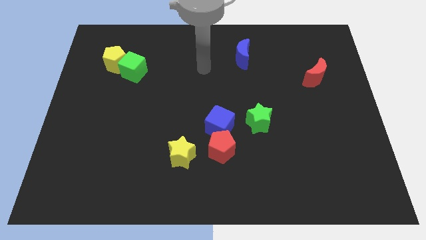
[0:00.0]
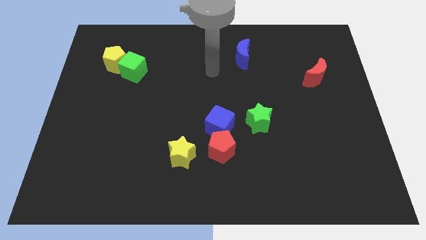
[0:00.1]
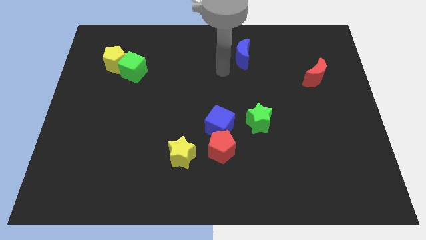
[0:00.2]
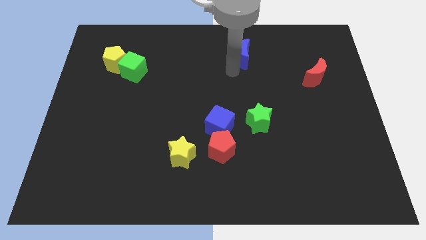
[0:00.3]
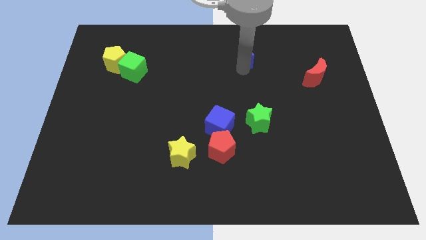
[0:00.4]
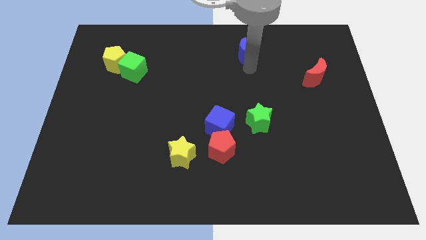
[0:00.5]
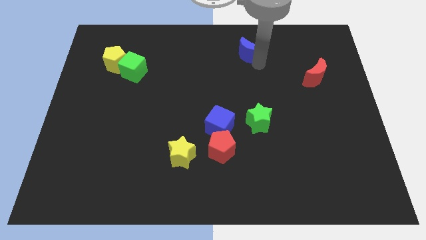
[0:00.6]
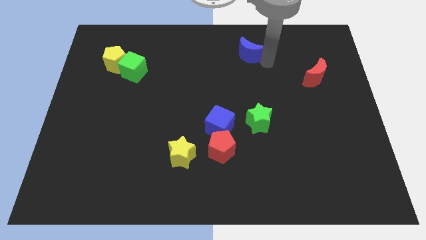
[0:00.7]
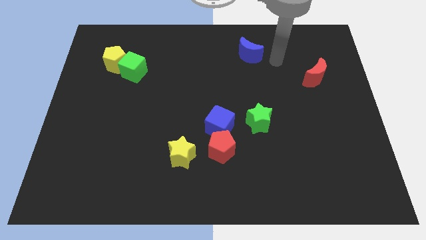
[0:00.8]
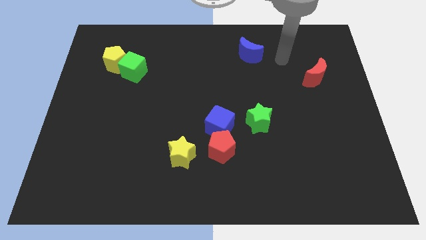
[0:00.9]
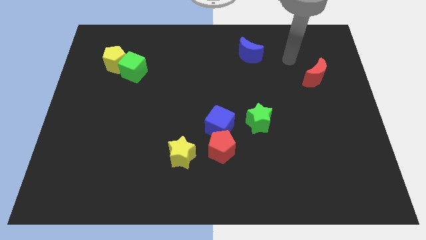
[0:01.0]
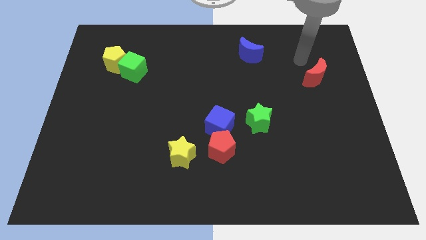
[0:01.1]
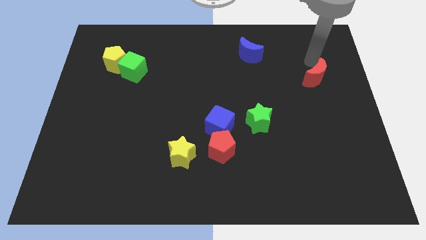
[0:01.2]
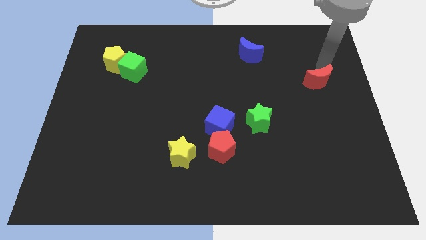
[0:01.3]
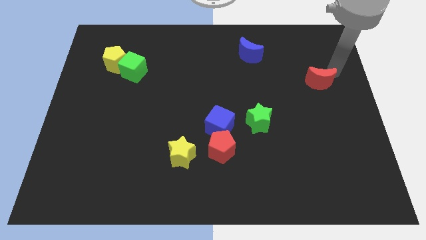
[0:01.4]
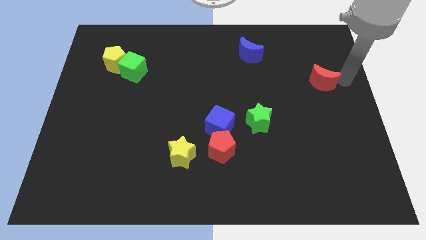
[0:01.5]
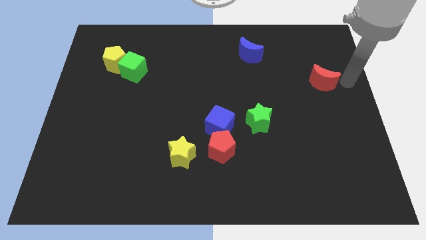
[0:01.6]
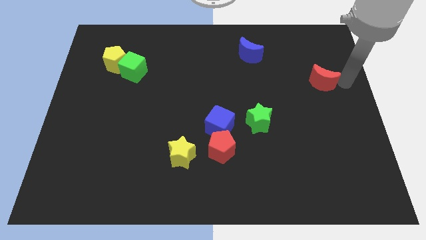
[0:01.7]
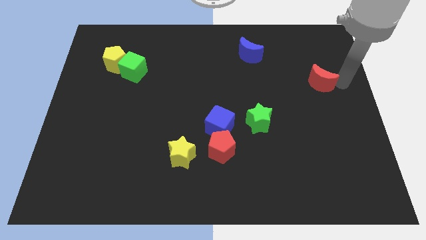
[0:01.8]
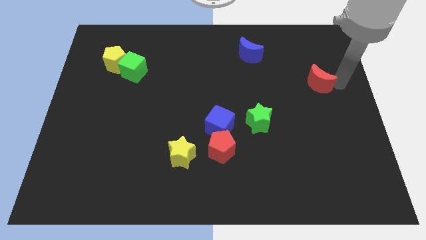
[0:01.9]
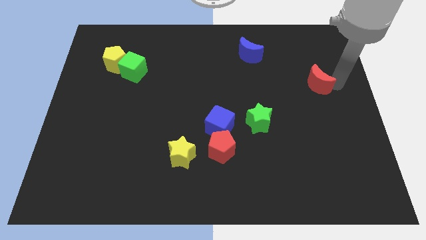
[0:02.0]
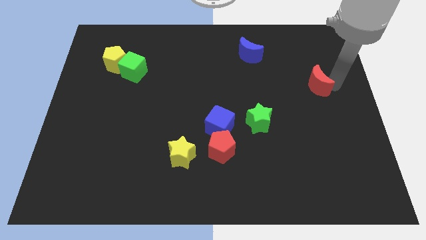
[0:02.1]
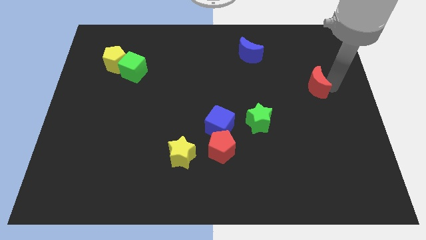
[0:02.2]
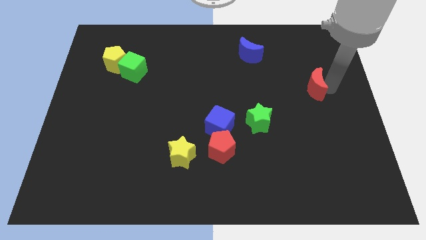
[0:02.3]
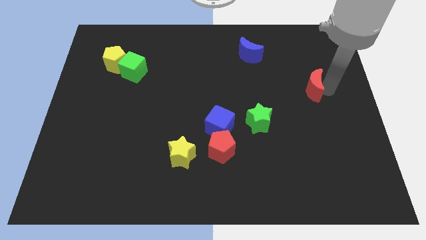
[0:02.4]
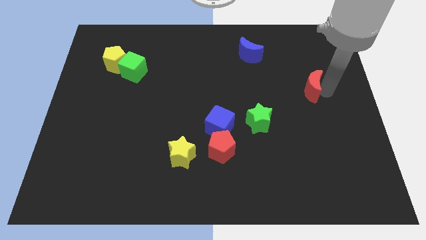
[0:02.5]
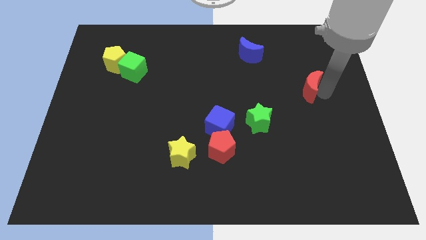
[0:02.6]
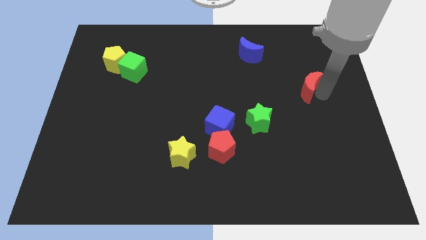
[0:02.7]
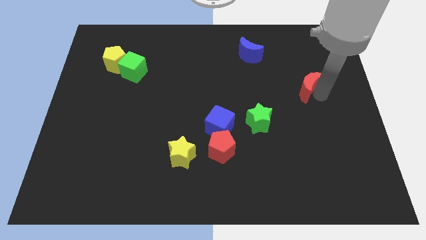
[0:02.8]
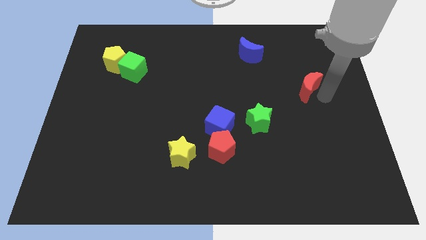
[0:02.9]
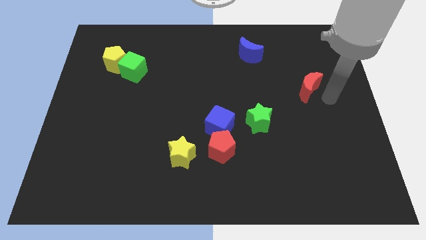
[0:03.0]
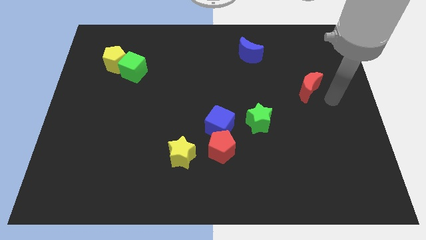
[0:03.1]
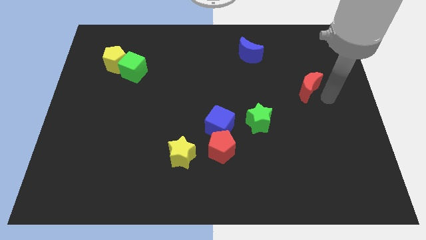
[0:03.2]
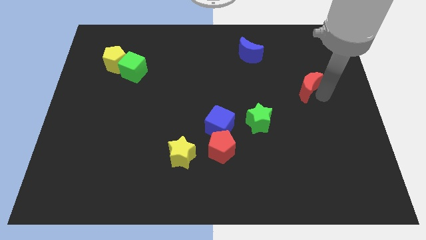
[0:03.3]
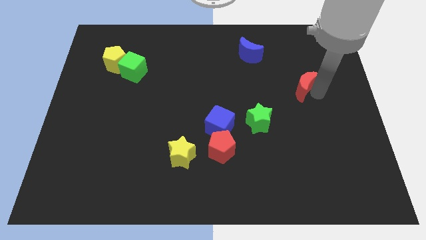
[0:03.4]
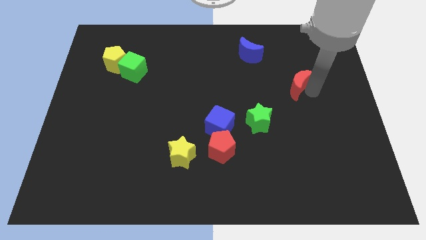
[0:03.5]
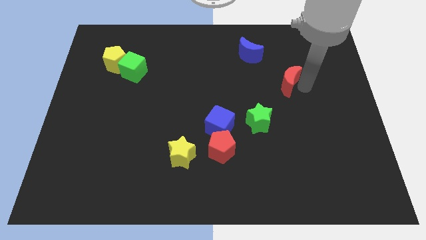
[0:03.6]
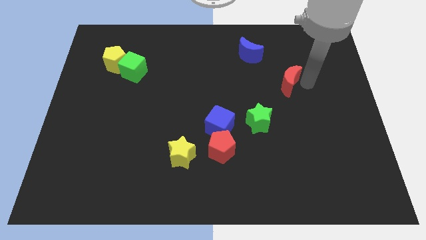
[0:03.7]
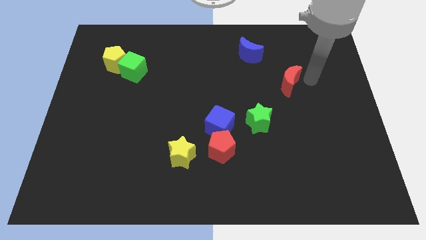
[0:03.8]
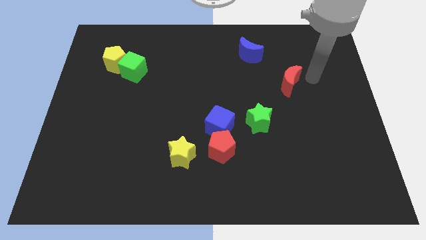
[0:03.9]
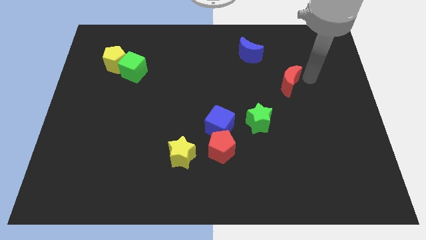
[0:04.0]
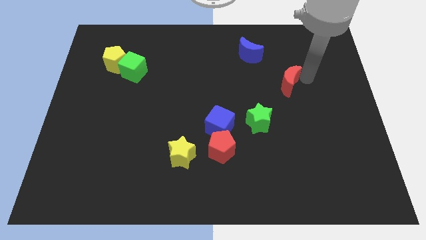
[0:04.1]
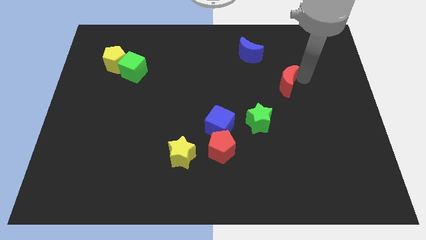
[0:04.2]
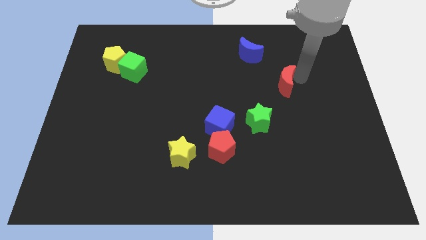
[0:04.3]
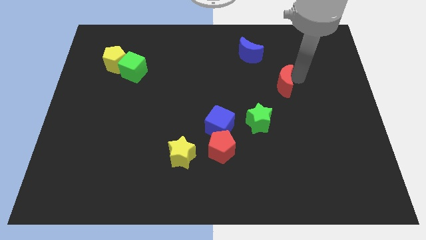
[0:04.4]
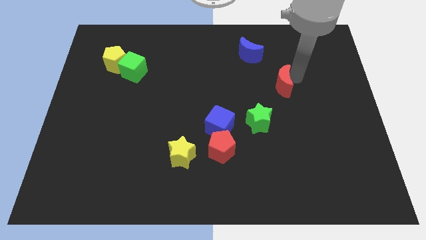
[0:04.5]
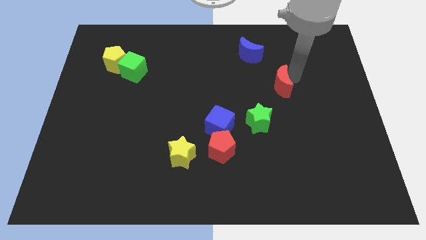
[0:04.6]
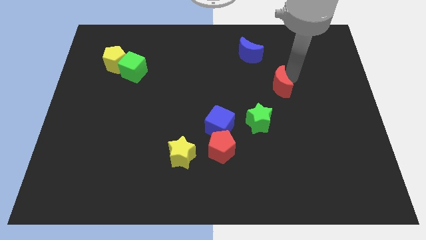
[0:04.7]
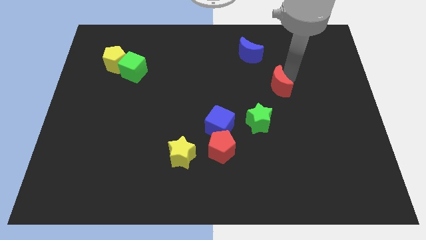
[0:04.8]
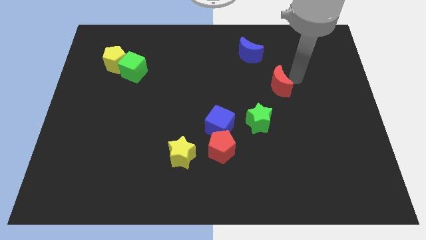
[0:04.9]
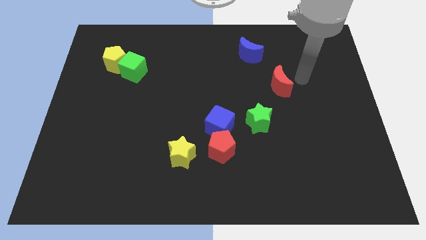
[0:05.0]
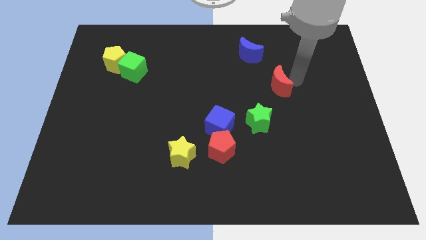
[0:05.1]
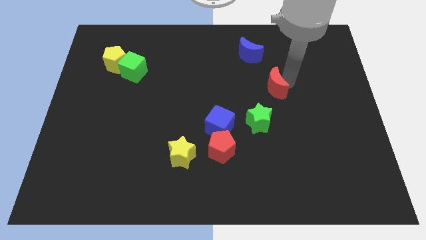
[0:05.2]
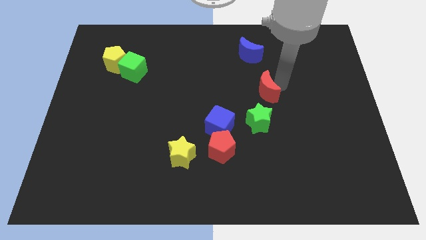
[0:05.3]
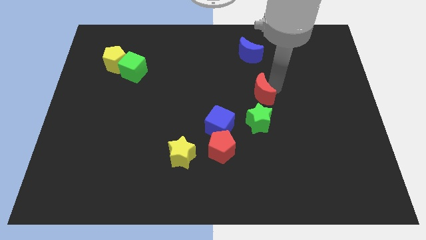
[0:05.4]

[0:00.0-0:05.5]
move the red moon to the center of the board

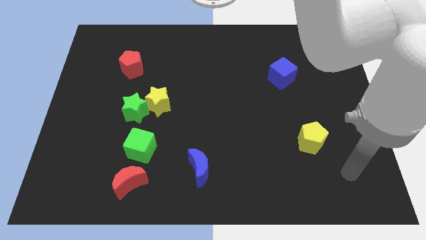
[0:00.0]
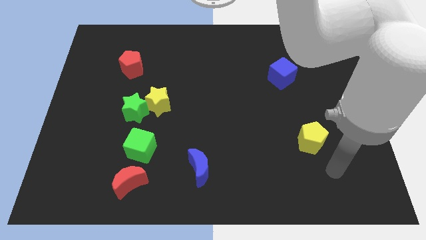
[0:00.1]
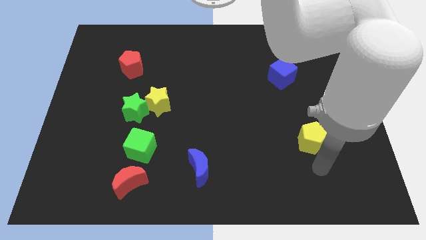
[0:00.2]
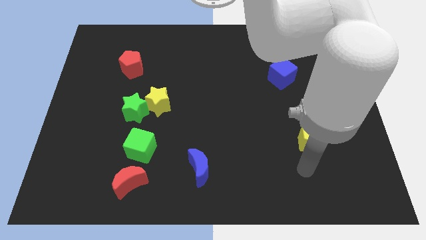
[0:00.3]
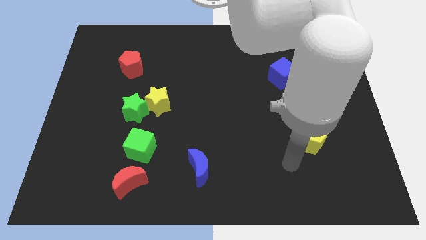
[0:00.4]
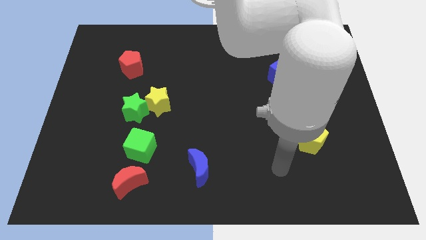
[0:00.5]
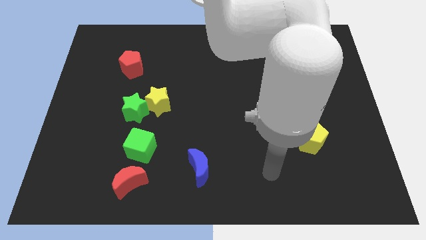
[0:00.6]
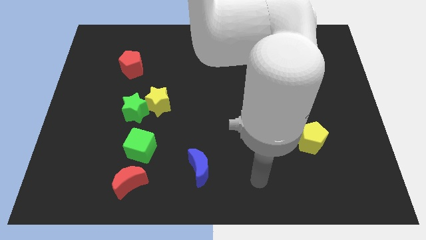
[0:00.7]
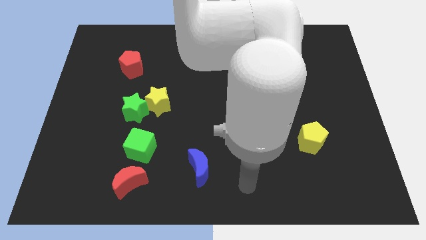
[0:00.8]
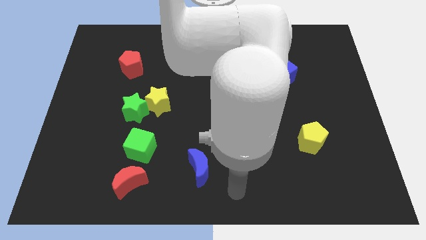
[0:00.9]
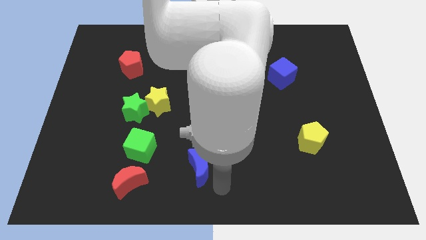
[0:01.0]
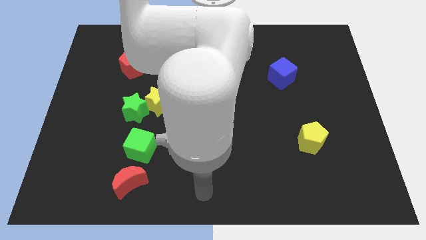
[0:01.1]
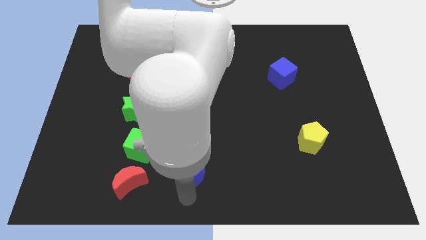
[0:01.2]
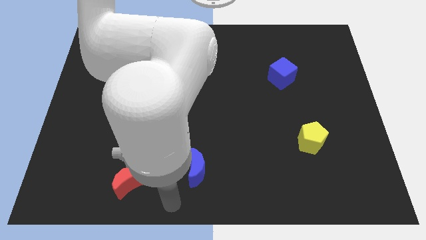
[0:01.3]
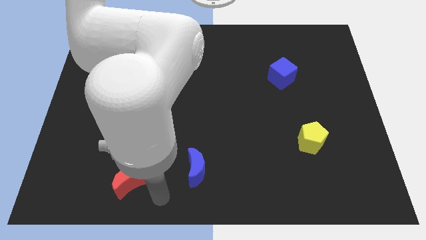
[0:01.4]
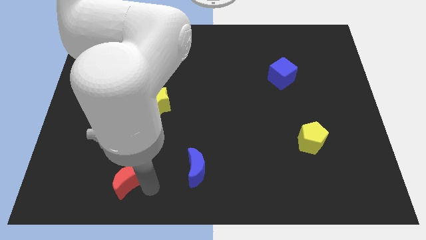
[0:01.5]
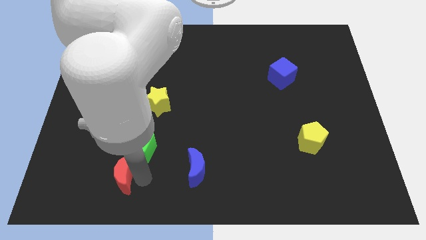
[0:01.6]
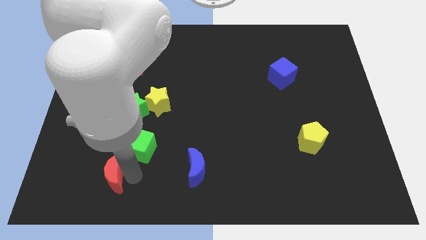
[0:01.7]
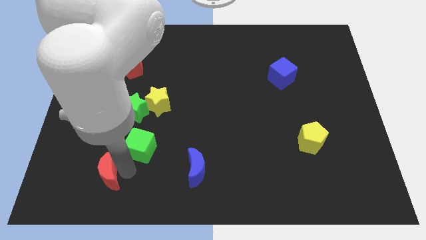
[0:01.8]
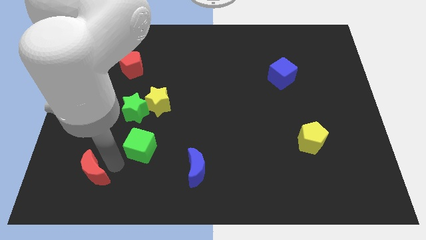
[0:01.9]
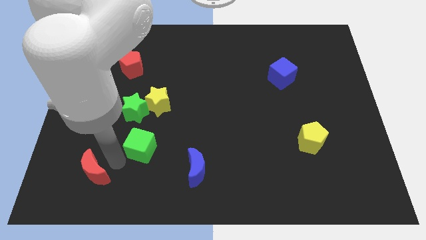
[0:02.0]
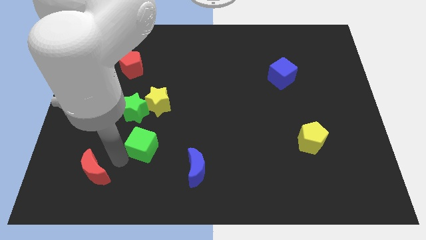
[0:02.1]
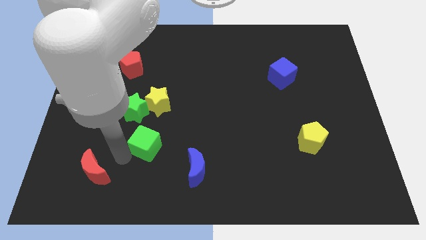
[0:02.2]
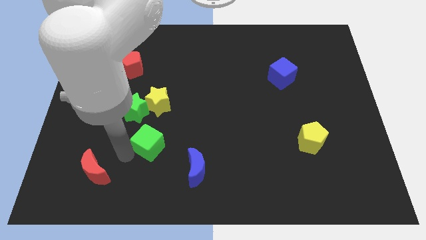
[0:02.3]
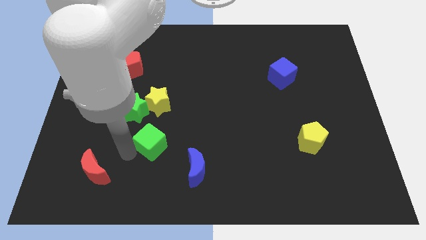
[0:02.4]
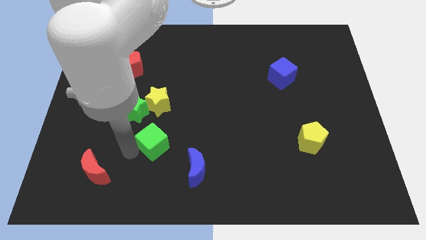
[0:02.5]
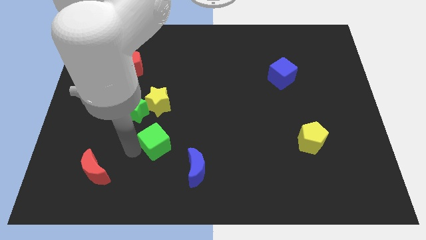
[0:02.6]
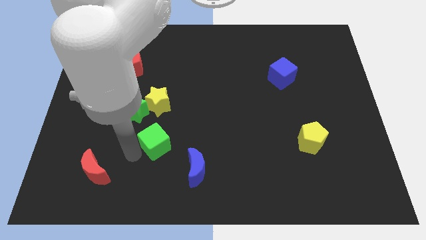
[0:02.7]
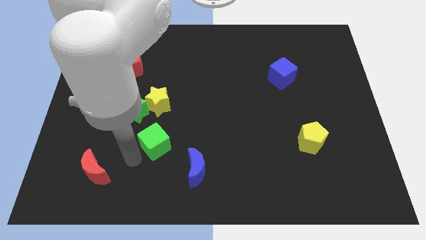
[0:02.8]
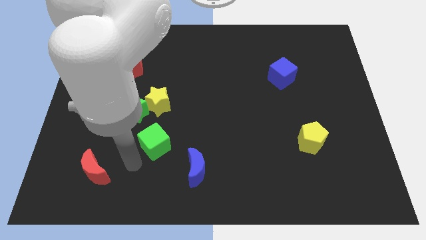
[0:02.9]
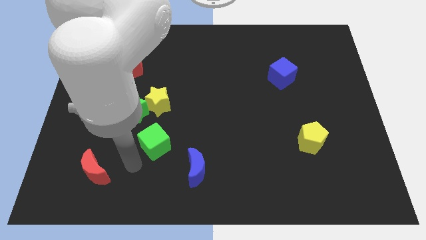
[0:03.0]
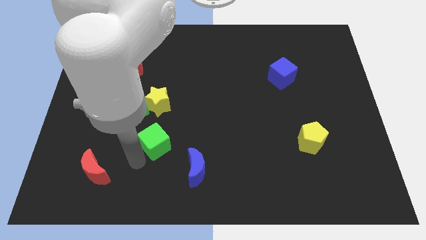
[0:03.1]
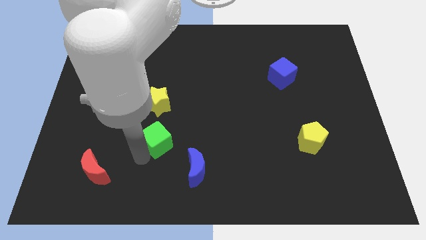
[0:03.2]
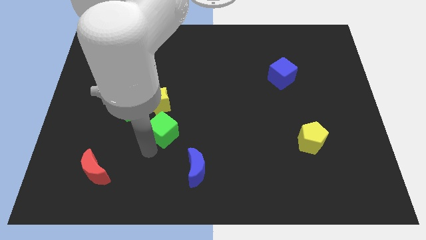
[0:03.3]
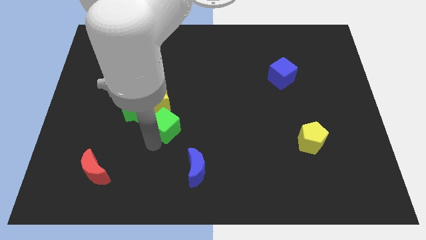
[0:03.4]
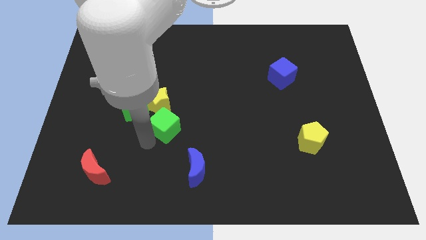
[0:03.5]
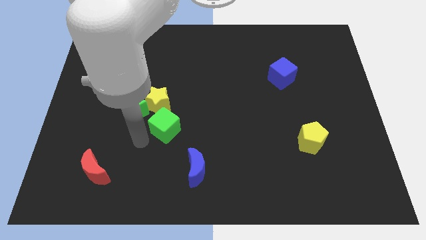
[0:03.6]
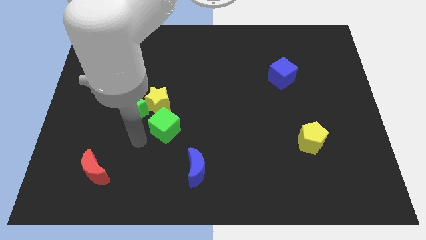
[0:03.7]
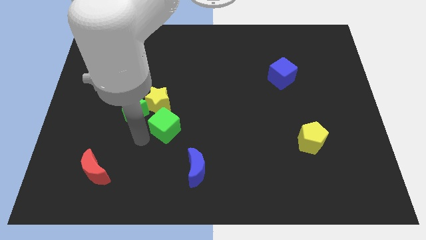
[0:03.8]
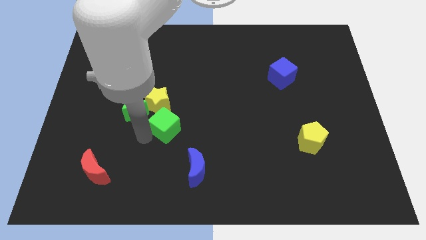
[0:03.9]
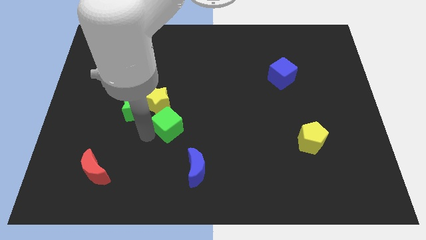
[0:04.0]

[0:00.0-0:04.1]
move the green cube to the middle of the board
